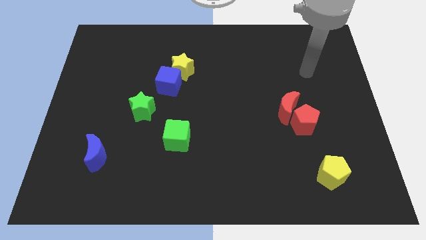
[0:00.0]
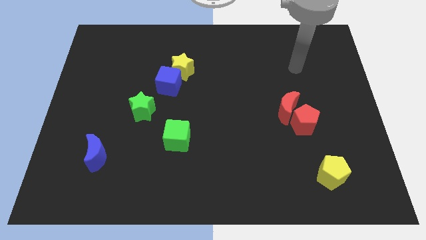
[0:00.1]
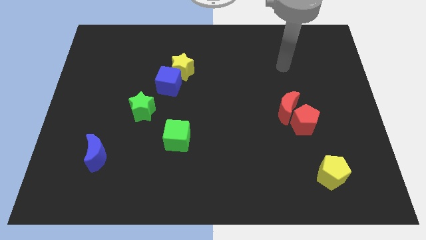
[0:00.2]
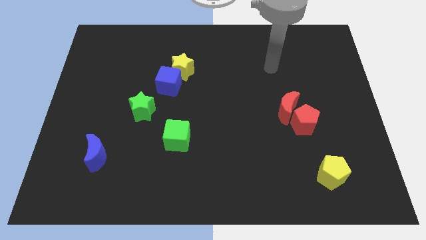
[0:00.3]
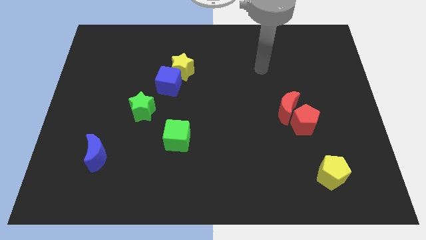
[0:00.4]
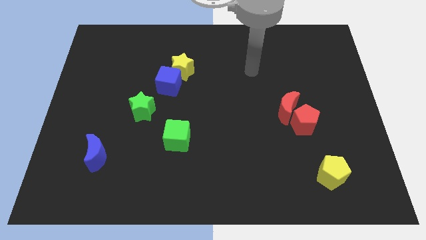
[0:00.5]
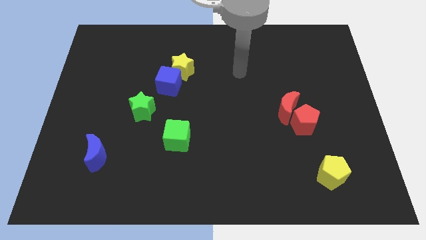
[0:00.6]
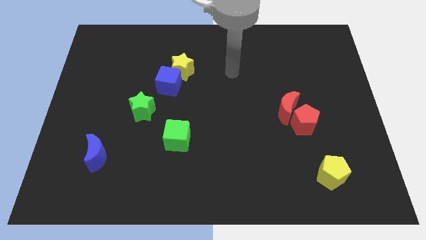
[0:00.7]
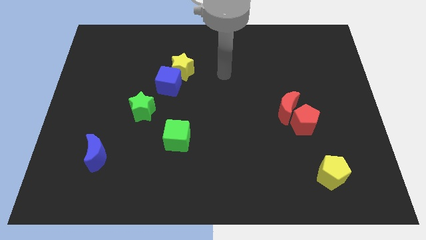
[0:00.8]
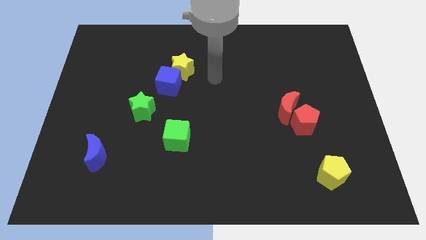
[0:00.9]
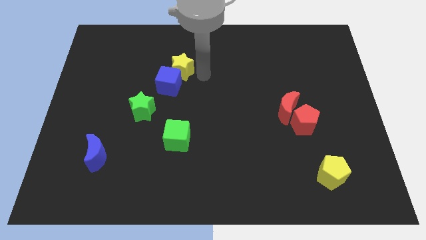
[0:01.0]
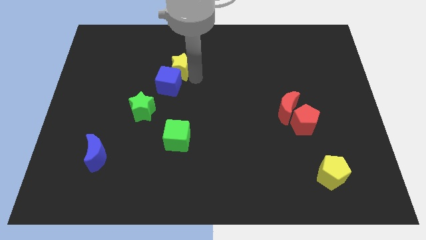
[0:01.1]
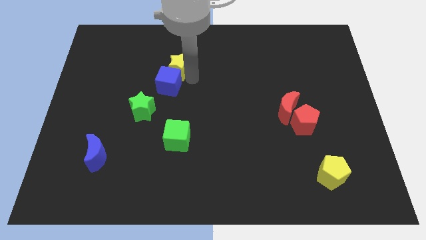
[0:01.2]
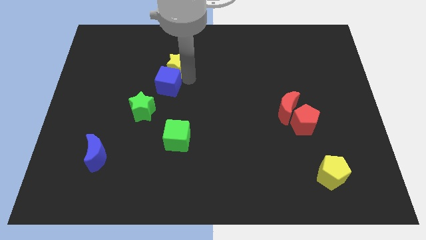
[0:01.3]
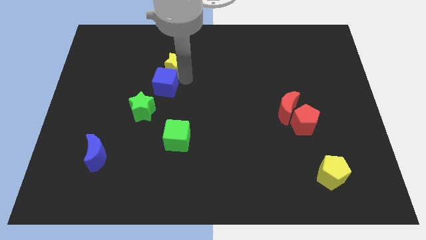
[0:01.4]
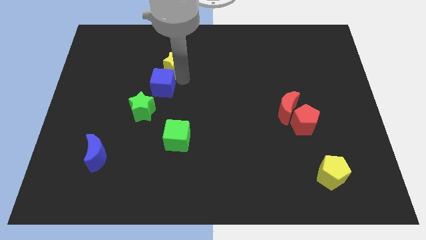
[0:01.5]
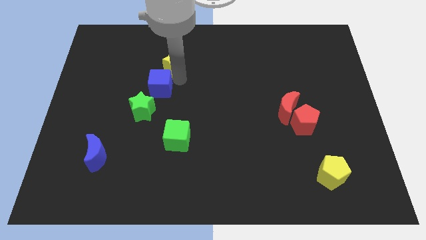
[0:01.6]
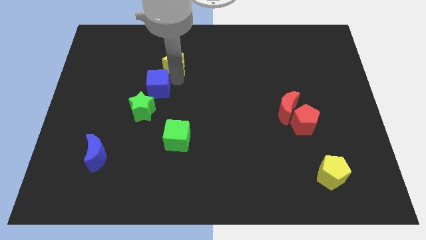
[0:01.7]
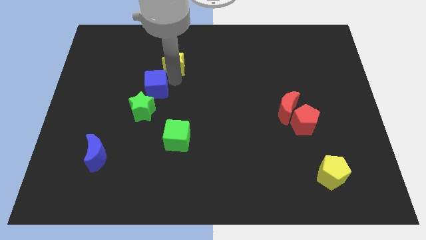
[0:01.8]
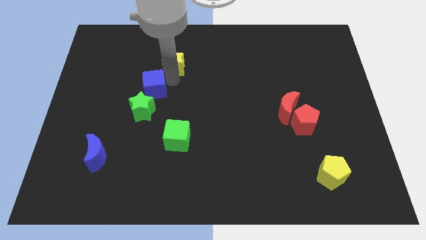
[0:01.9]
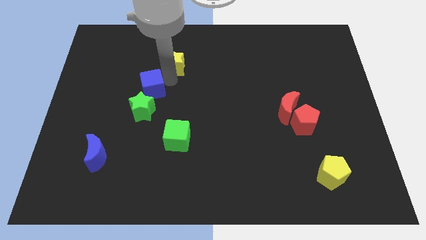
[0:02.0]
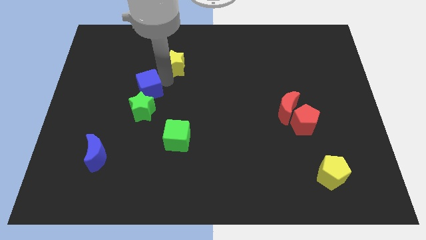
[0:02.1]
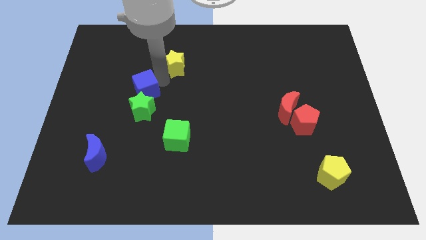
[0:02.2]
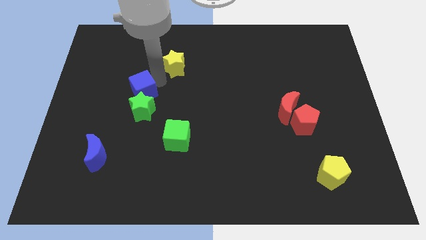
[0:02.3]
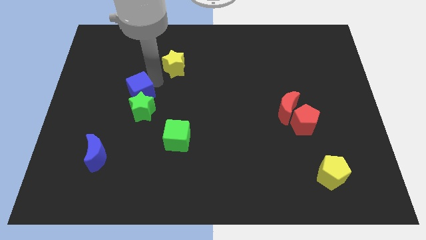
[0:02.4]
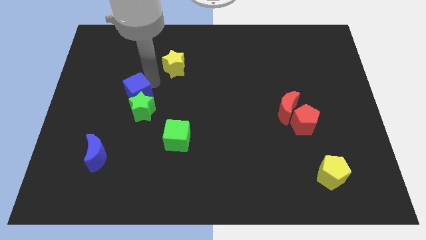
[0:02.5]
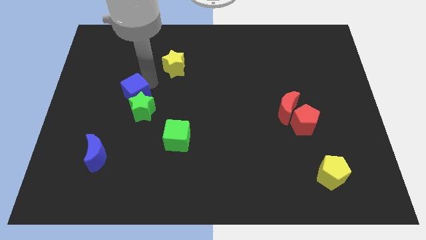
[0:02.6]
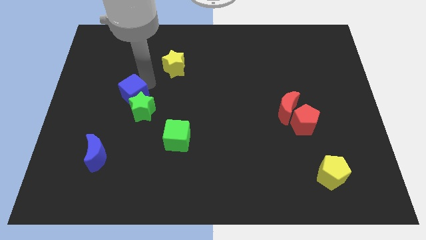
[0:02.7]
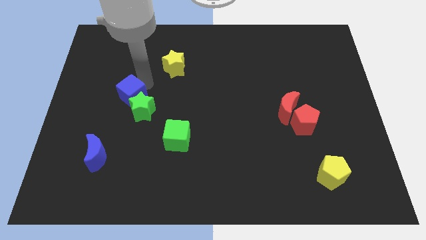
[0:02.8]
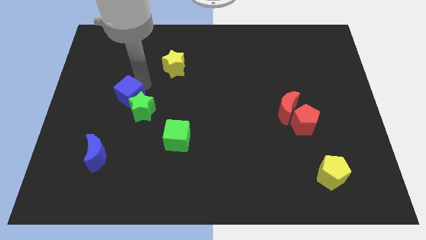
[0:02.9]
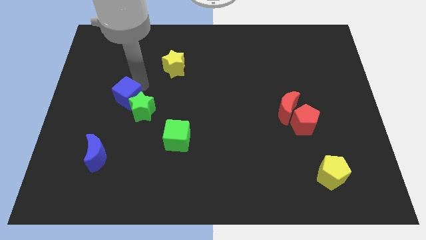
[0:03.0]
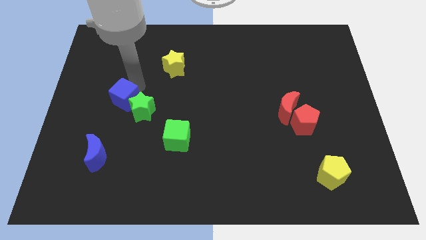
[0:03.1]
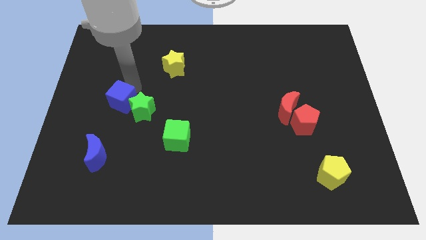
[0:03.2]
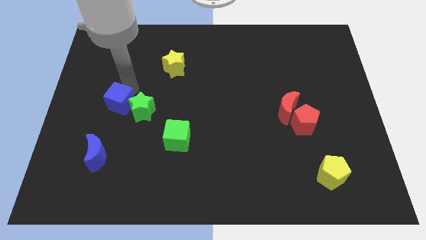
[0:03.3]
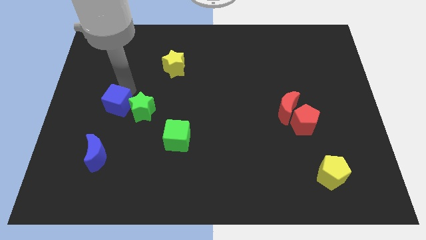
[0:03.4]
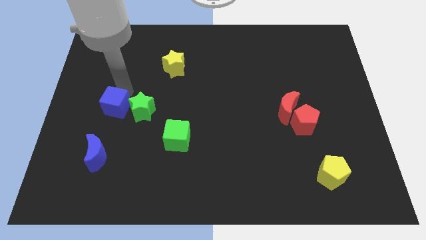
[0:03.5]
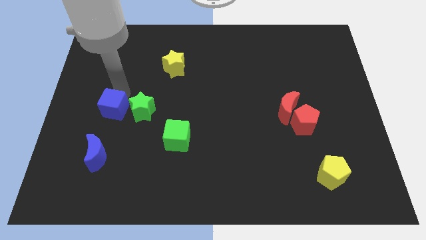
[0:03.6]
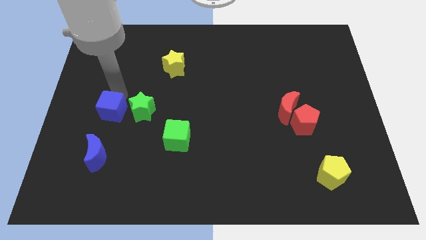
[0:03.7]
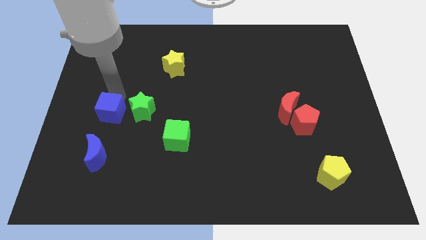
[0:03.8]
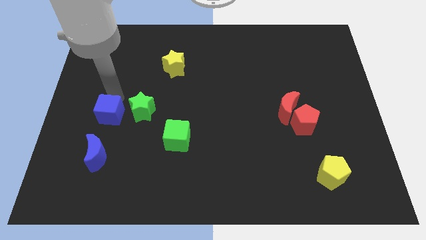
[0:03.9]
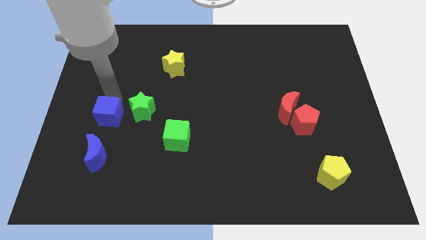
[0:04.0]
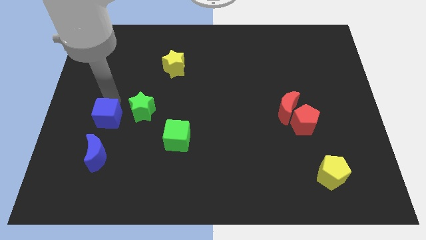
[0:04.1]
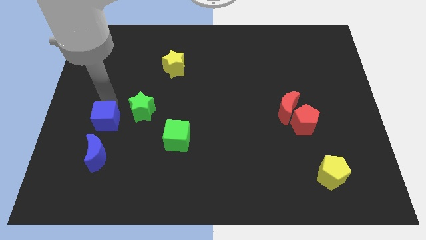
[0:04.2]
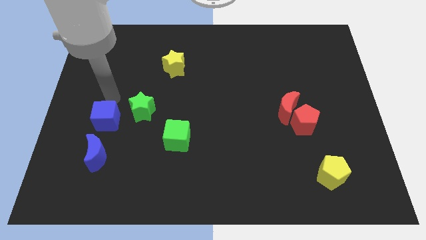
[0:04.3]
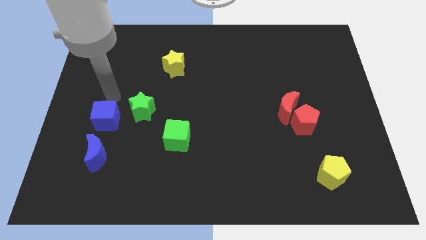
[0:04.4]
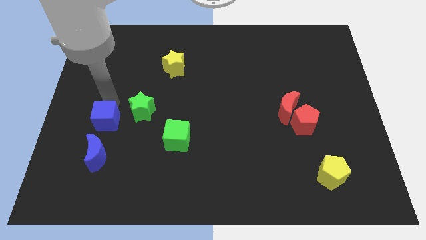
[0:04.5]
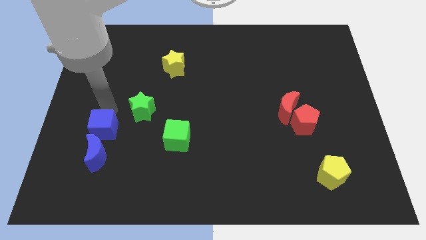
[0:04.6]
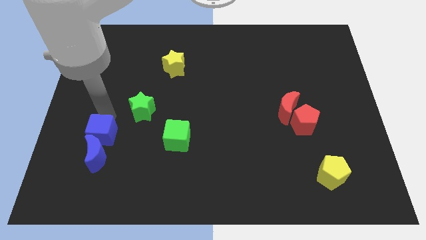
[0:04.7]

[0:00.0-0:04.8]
push the blue cube next to the blue moon

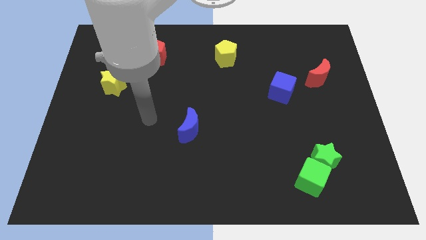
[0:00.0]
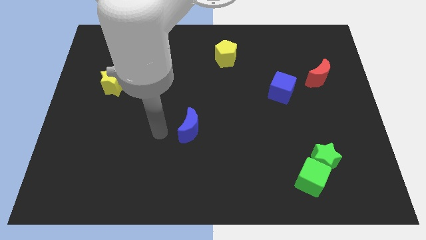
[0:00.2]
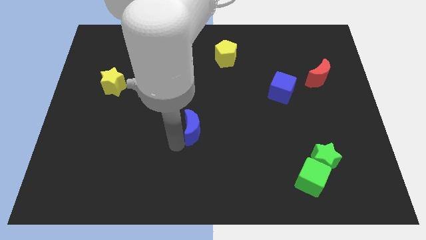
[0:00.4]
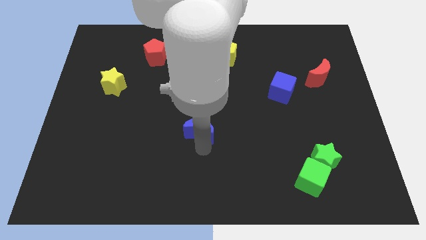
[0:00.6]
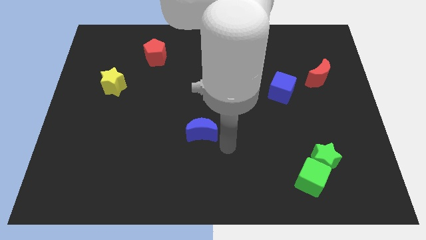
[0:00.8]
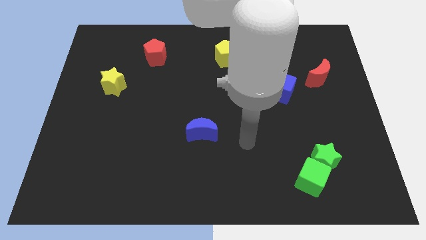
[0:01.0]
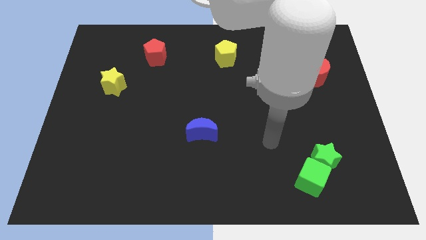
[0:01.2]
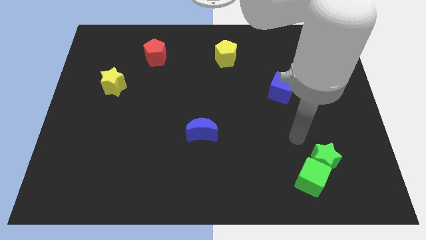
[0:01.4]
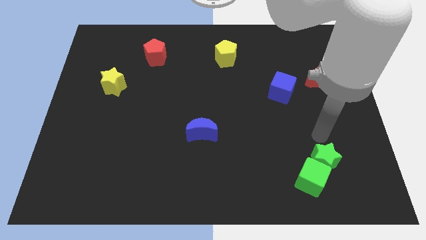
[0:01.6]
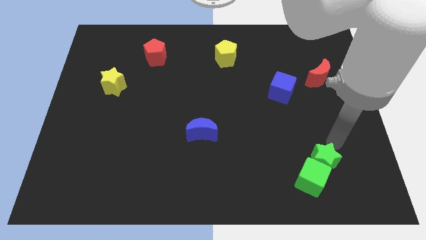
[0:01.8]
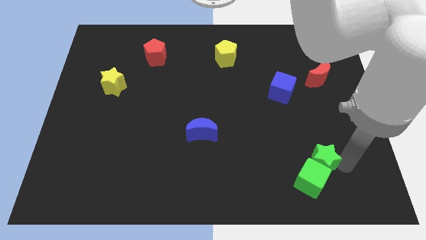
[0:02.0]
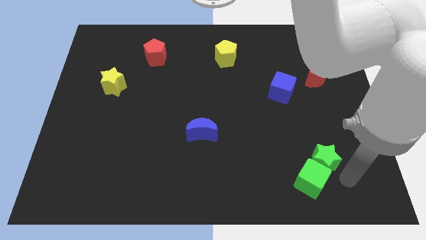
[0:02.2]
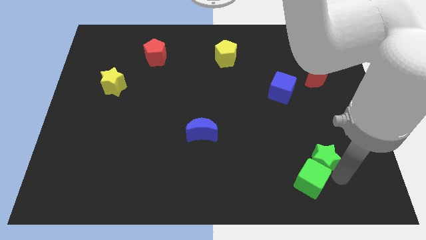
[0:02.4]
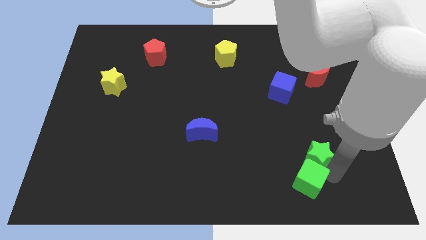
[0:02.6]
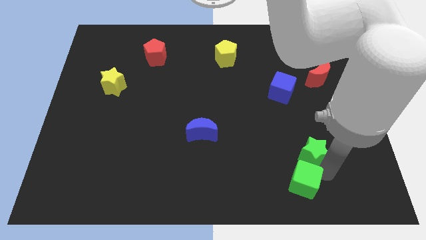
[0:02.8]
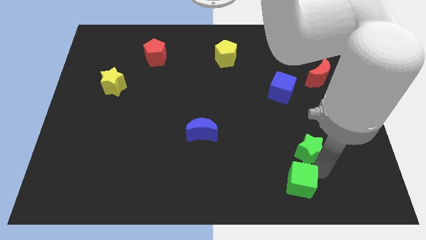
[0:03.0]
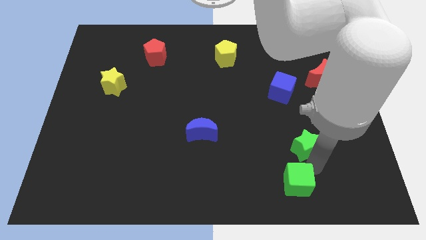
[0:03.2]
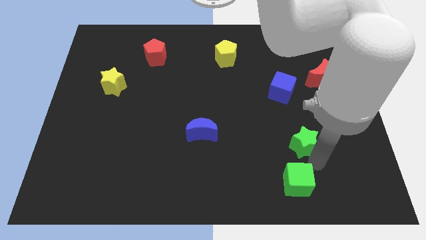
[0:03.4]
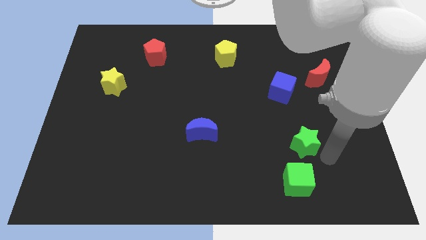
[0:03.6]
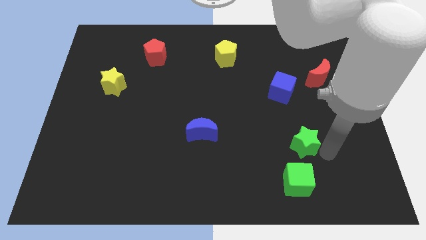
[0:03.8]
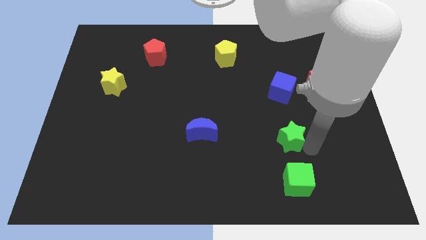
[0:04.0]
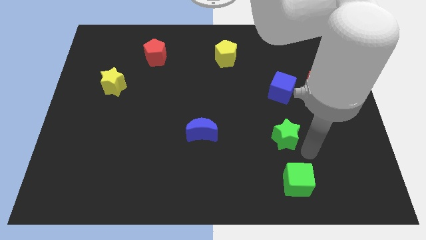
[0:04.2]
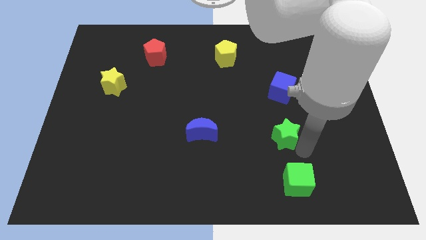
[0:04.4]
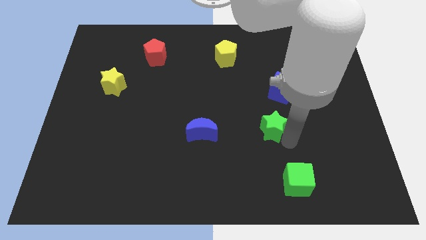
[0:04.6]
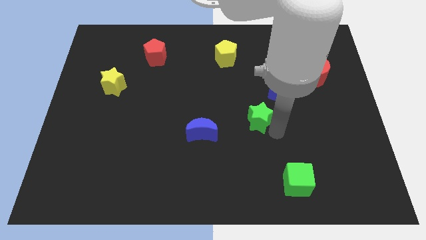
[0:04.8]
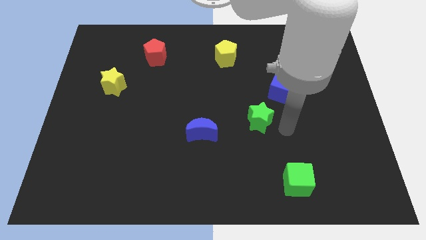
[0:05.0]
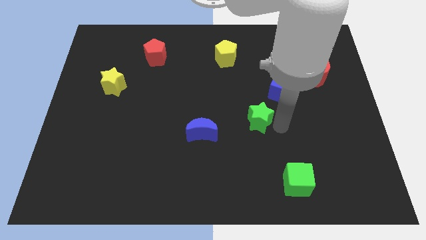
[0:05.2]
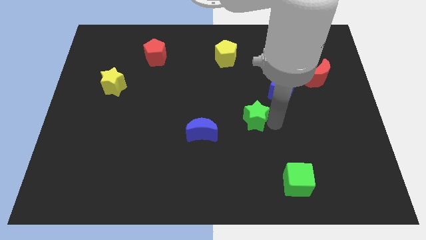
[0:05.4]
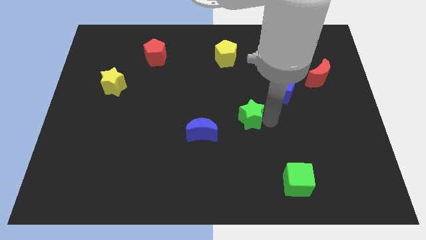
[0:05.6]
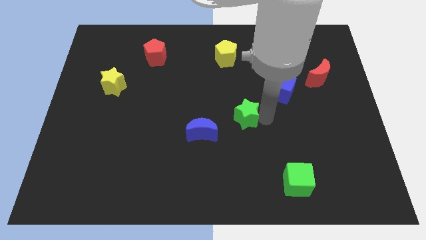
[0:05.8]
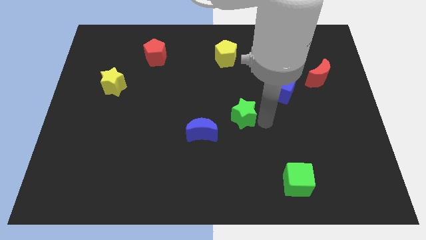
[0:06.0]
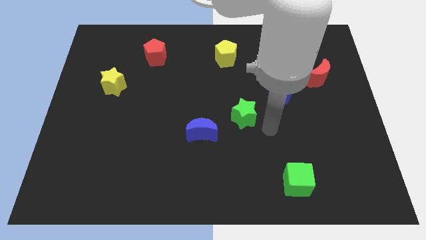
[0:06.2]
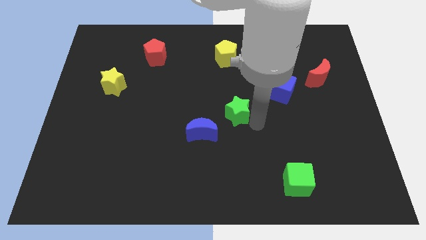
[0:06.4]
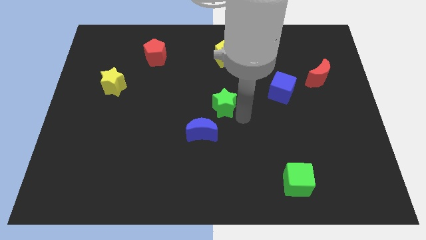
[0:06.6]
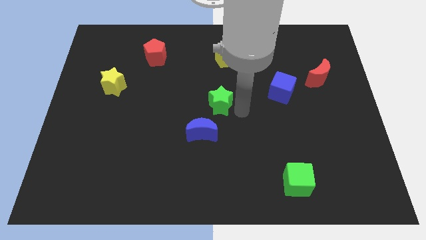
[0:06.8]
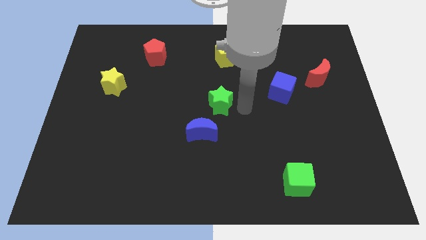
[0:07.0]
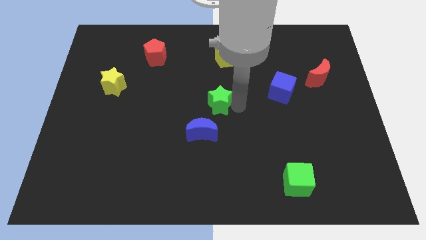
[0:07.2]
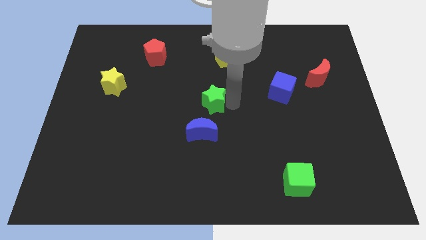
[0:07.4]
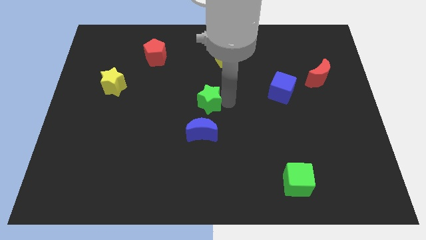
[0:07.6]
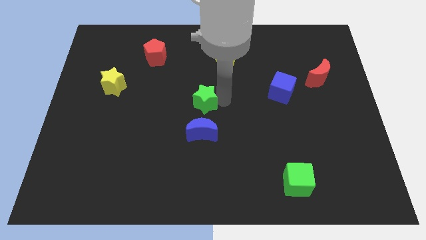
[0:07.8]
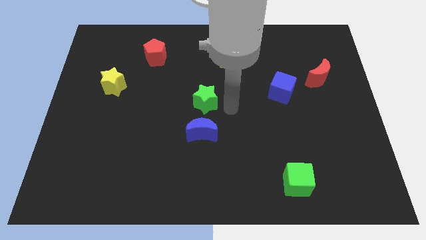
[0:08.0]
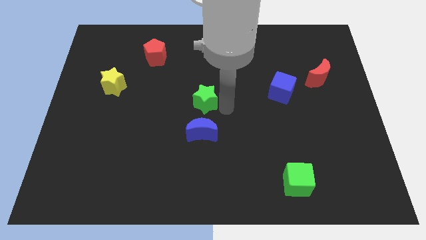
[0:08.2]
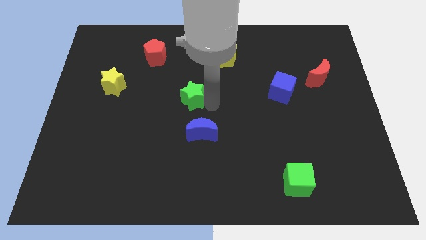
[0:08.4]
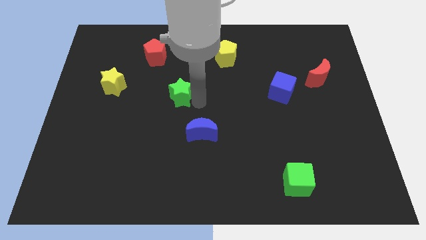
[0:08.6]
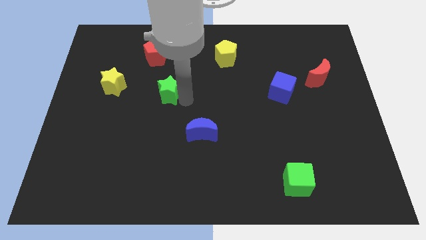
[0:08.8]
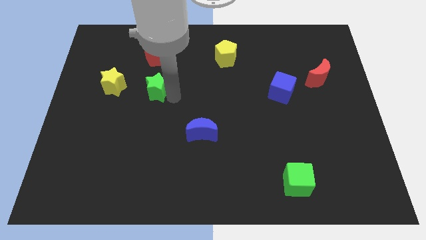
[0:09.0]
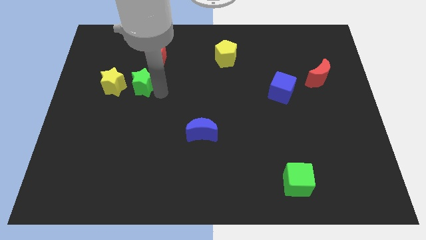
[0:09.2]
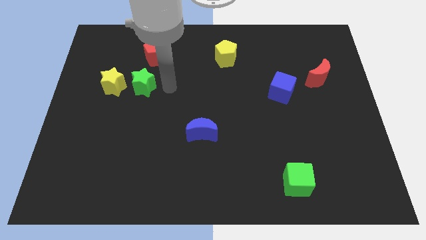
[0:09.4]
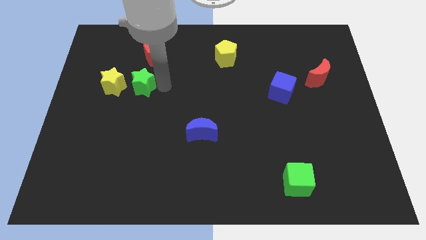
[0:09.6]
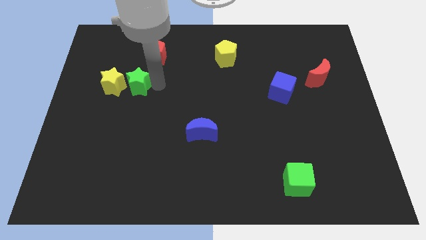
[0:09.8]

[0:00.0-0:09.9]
push the green star towards the yellow star
